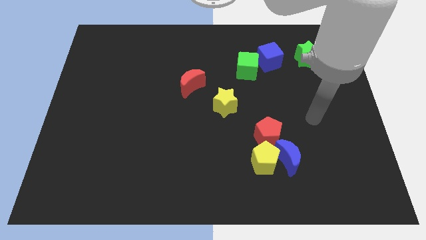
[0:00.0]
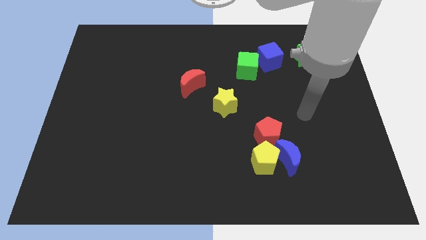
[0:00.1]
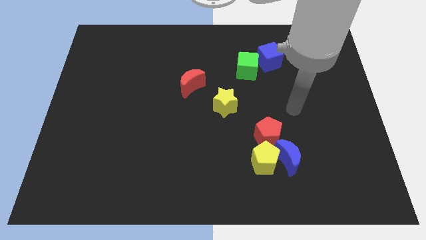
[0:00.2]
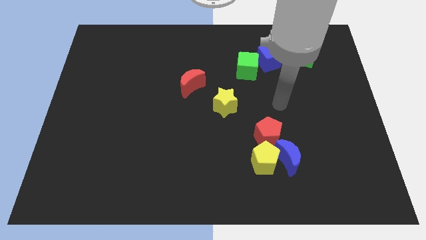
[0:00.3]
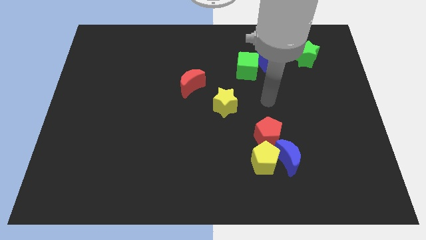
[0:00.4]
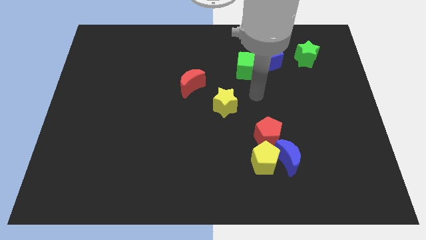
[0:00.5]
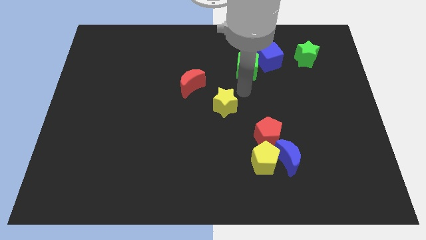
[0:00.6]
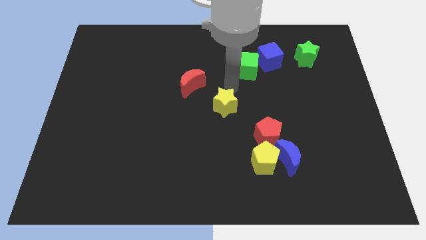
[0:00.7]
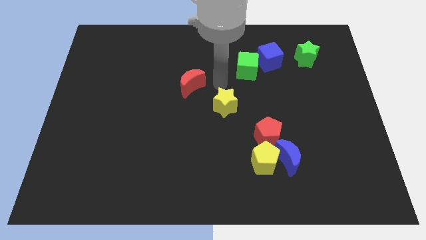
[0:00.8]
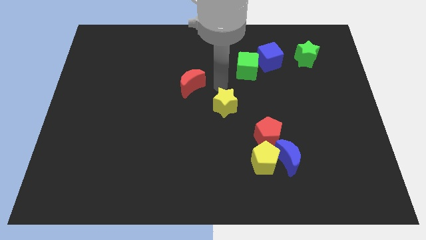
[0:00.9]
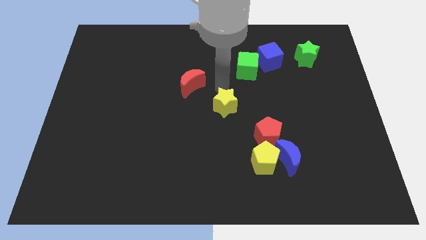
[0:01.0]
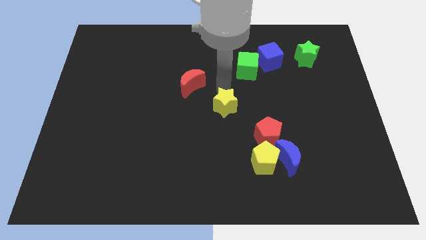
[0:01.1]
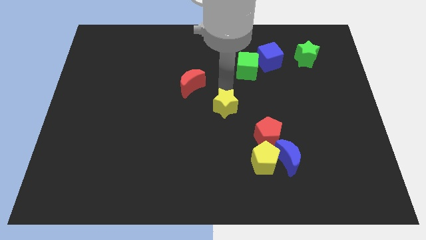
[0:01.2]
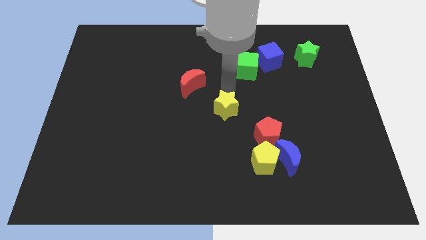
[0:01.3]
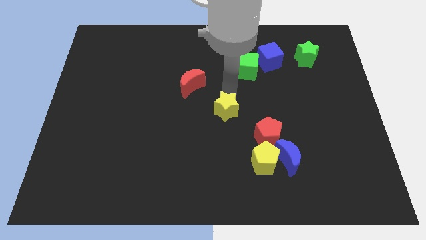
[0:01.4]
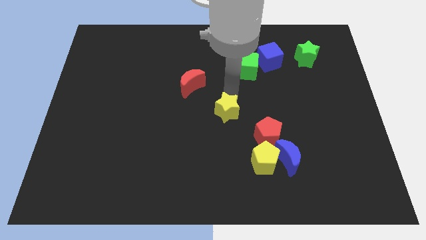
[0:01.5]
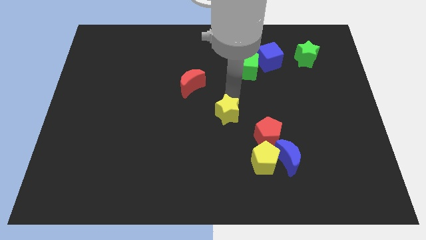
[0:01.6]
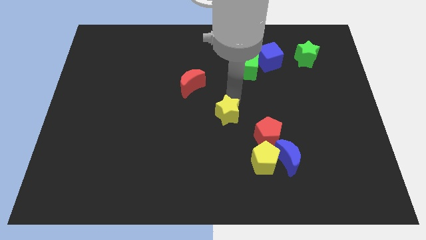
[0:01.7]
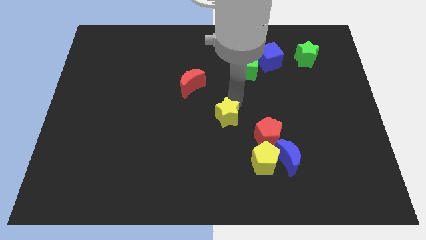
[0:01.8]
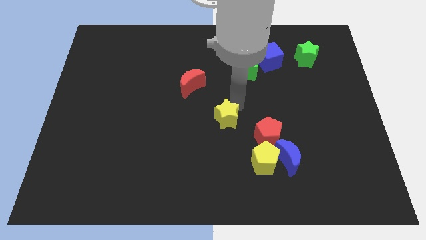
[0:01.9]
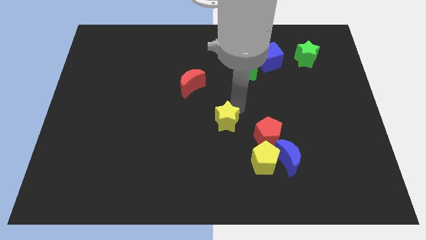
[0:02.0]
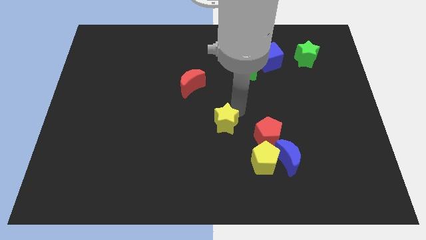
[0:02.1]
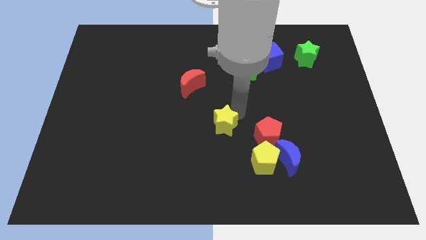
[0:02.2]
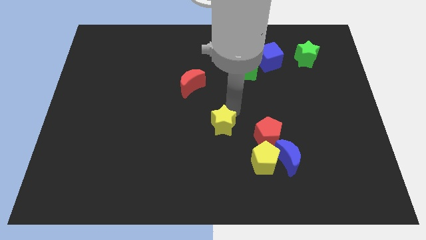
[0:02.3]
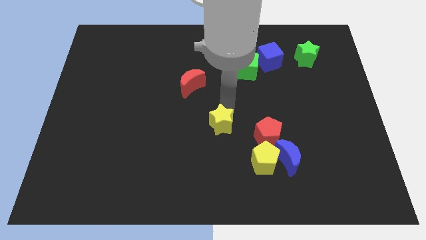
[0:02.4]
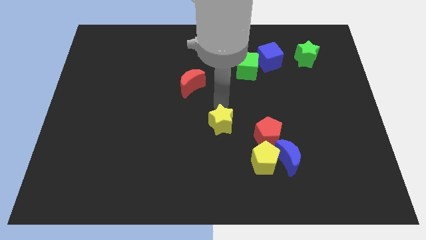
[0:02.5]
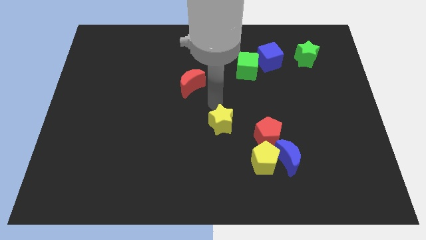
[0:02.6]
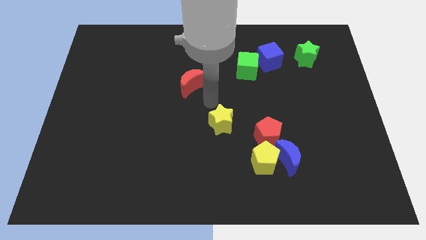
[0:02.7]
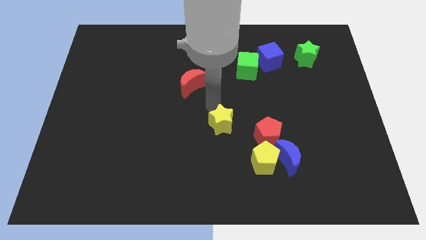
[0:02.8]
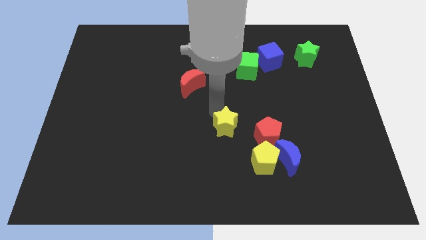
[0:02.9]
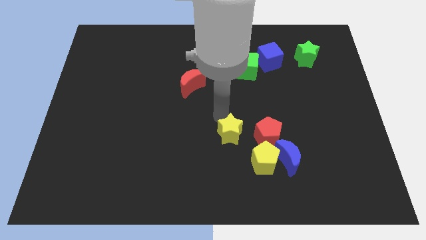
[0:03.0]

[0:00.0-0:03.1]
move the yellow star somewhat down

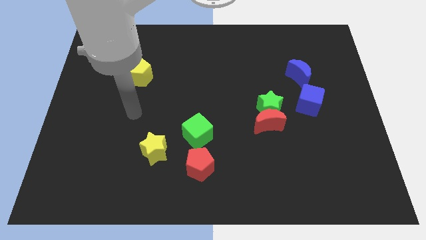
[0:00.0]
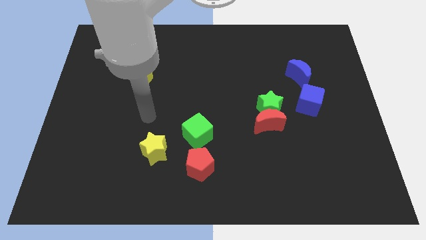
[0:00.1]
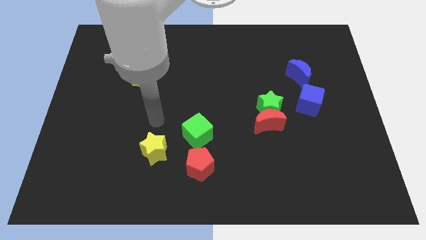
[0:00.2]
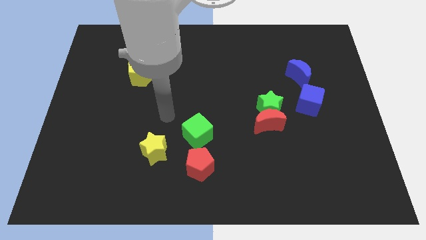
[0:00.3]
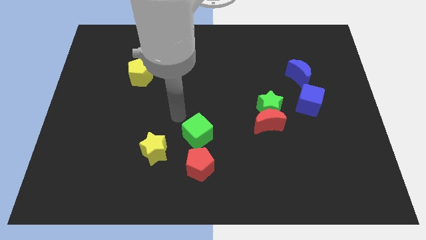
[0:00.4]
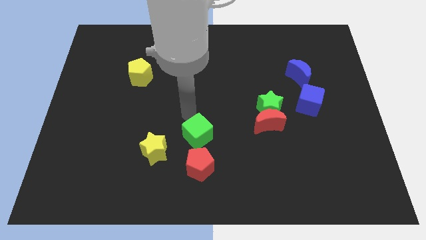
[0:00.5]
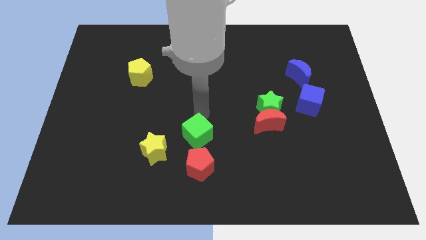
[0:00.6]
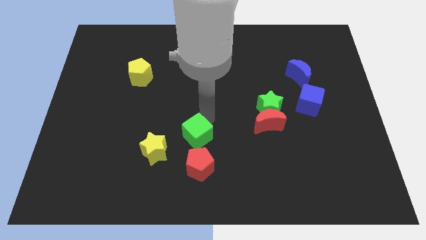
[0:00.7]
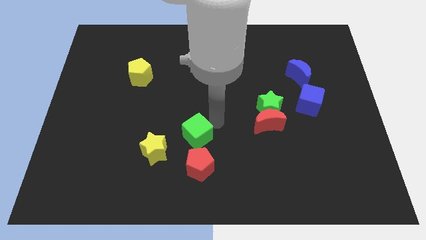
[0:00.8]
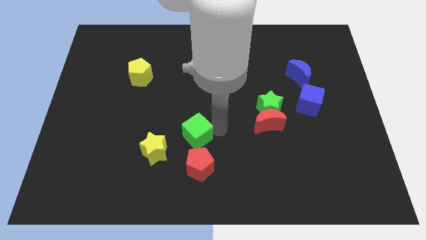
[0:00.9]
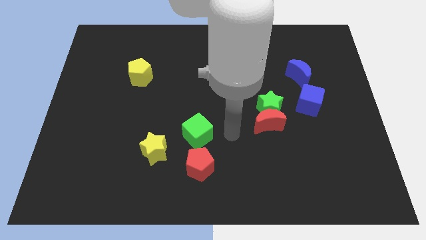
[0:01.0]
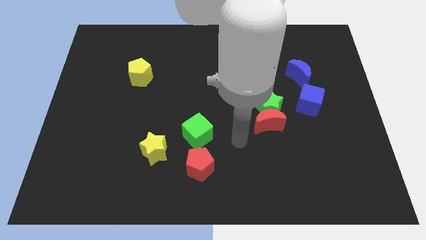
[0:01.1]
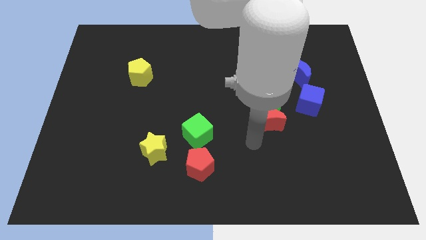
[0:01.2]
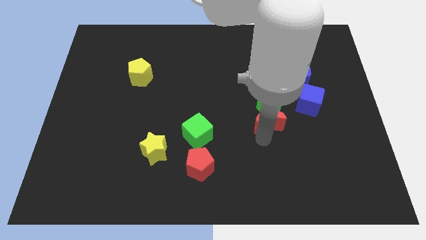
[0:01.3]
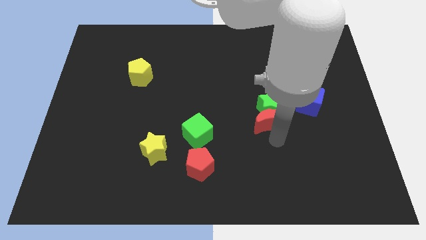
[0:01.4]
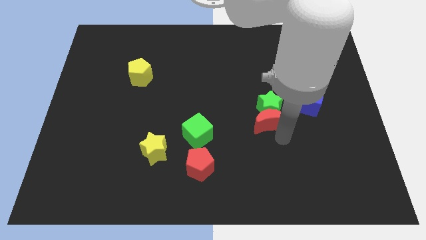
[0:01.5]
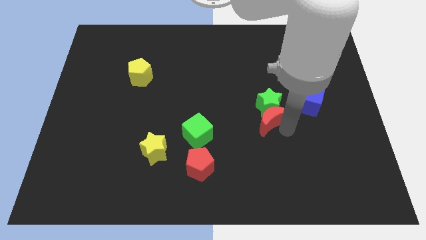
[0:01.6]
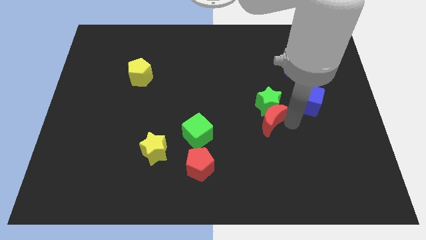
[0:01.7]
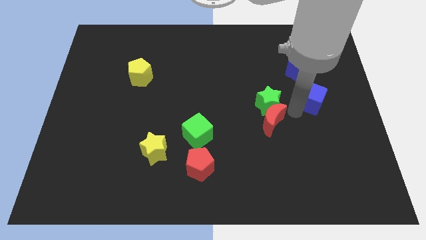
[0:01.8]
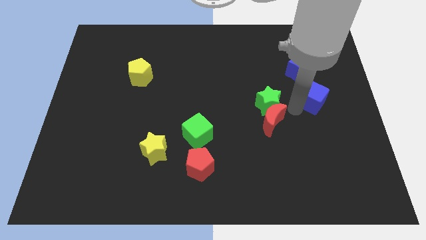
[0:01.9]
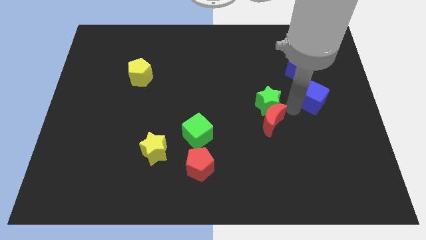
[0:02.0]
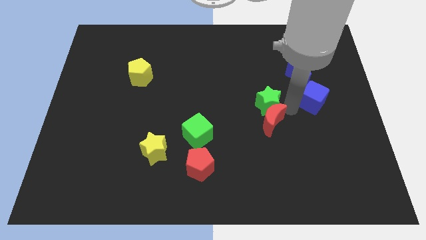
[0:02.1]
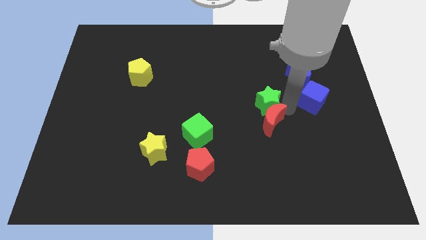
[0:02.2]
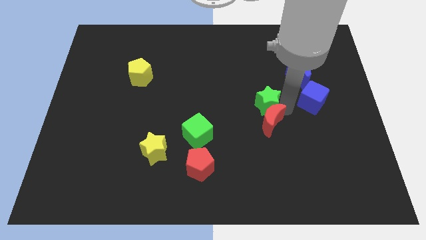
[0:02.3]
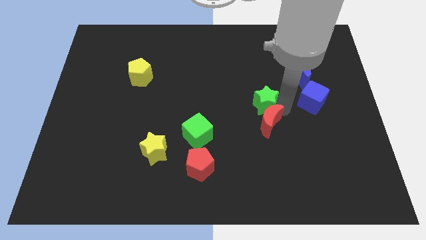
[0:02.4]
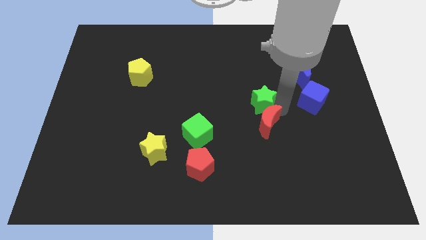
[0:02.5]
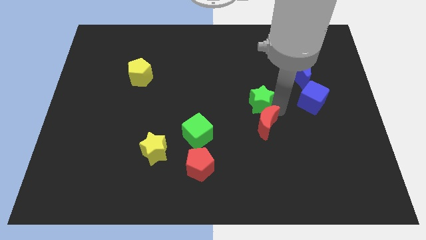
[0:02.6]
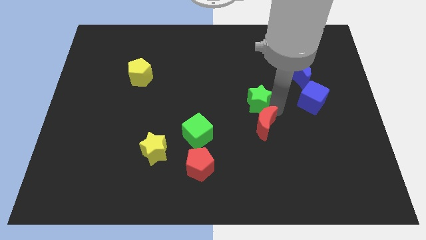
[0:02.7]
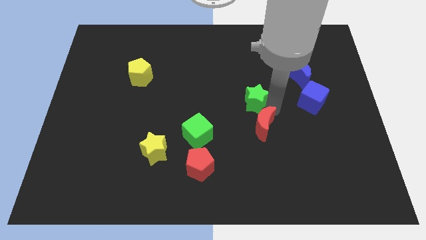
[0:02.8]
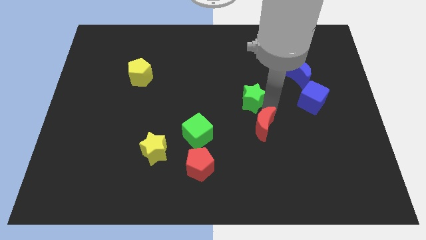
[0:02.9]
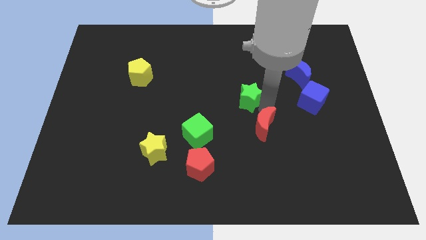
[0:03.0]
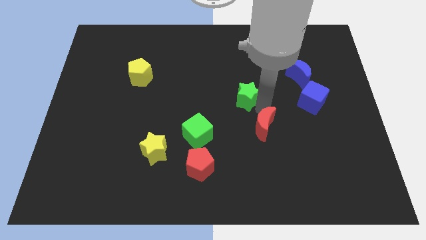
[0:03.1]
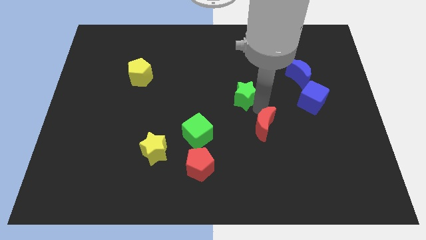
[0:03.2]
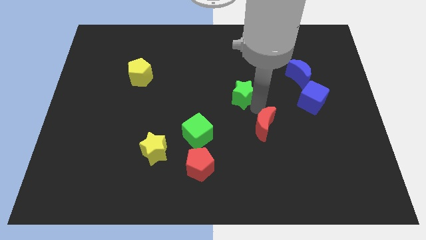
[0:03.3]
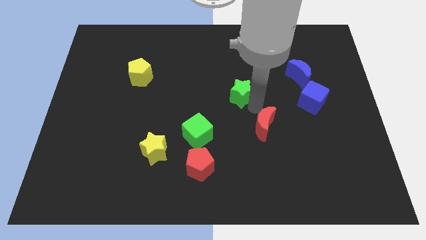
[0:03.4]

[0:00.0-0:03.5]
slide the green star slightly diagonally up and to the left

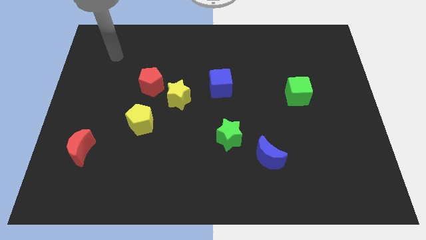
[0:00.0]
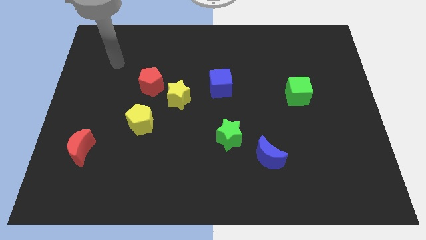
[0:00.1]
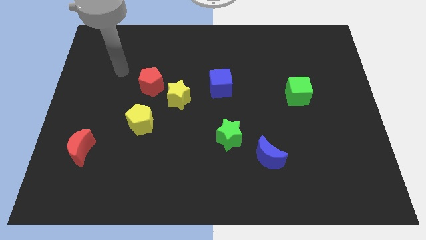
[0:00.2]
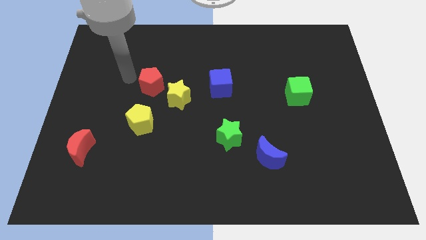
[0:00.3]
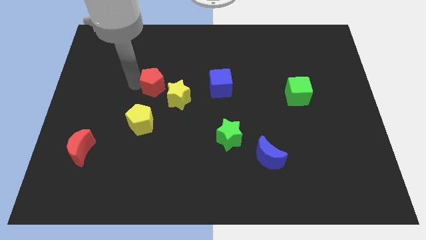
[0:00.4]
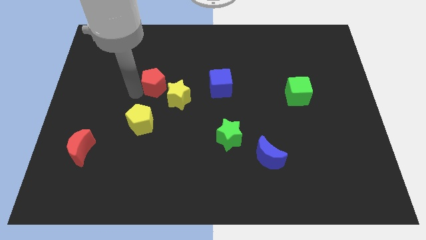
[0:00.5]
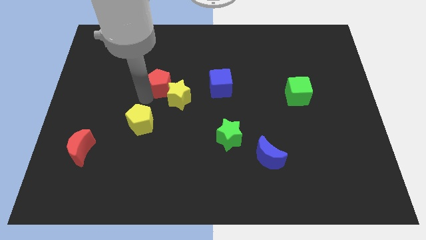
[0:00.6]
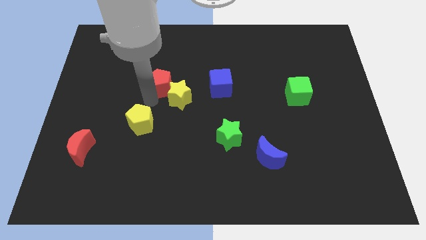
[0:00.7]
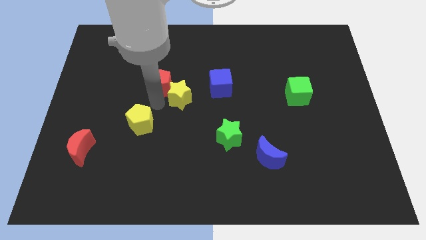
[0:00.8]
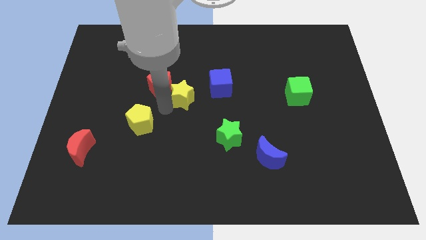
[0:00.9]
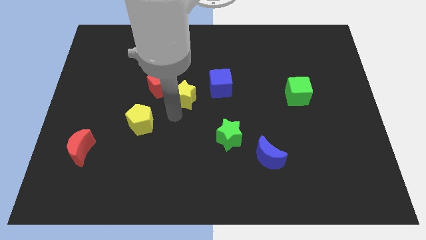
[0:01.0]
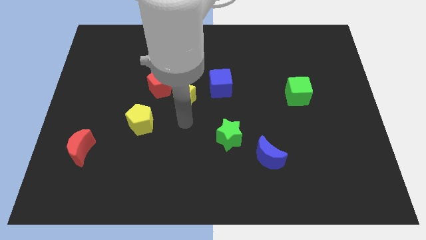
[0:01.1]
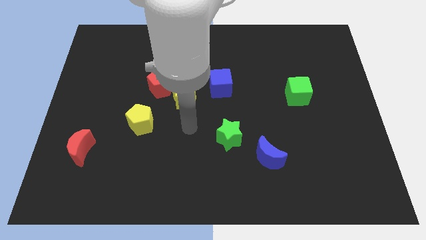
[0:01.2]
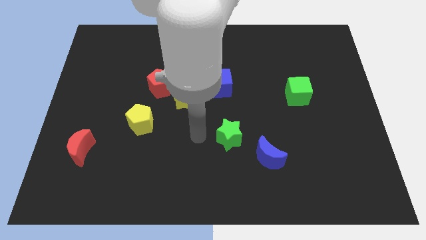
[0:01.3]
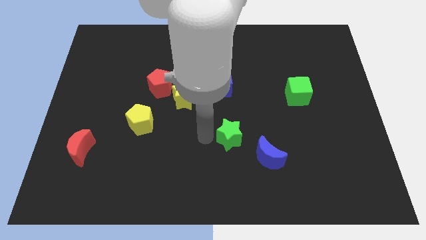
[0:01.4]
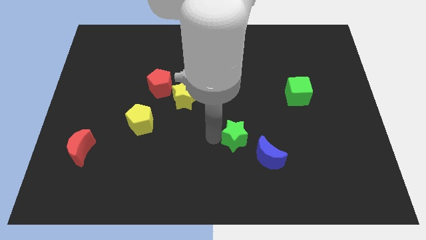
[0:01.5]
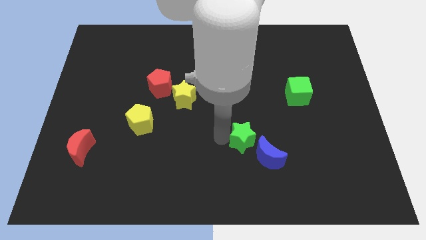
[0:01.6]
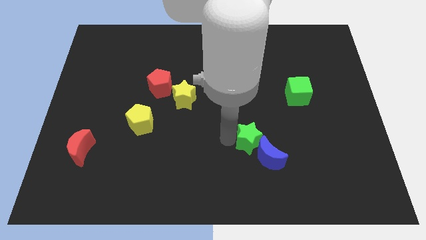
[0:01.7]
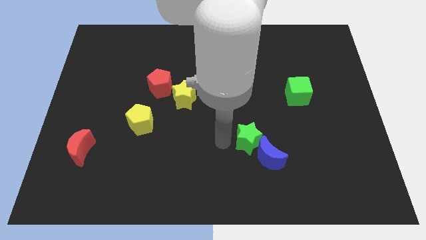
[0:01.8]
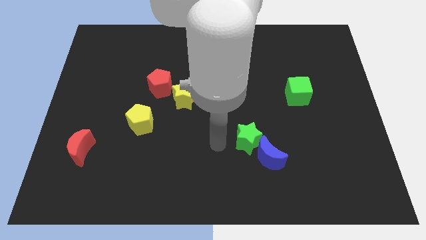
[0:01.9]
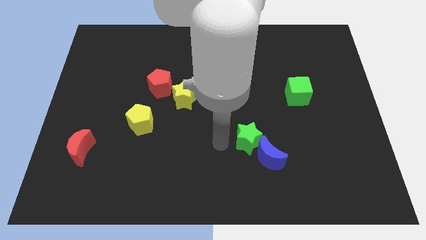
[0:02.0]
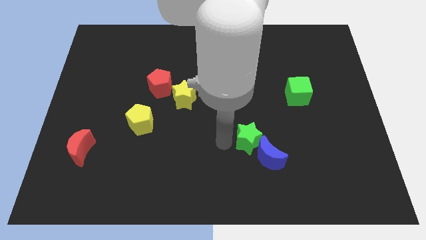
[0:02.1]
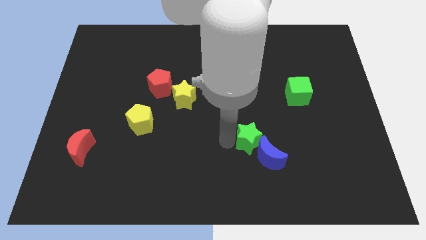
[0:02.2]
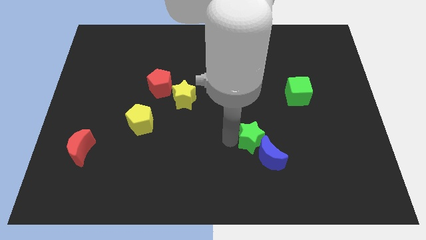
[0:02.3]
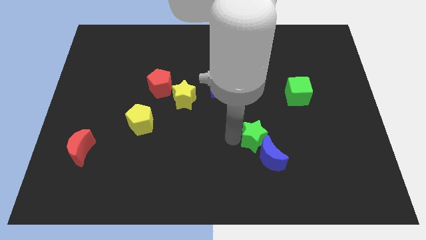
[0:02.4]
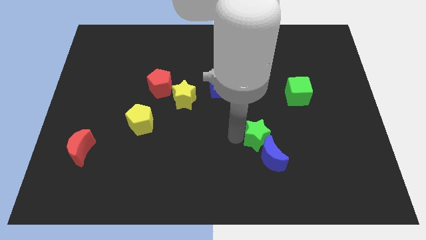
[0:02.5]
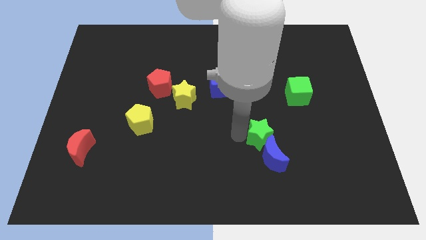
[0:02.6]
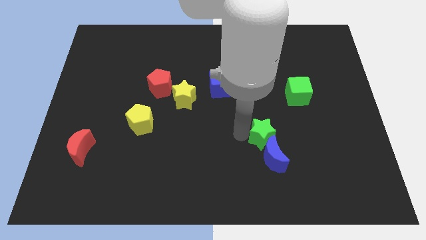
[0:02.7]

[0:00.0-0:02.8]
slightly push the green star right
